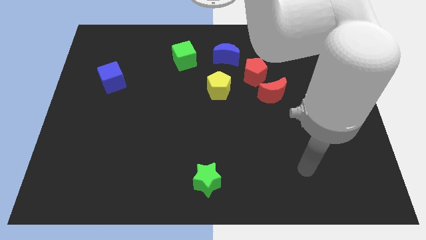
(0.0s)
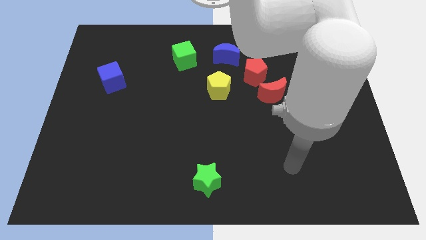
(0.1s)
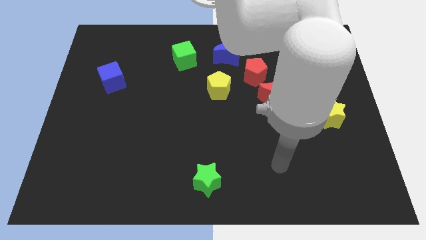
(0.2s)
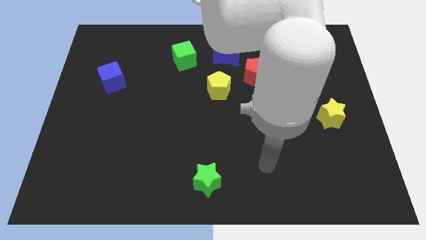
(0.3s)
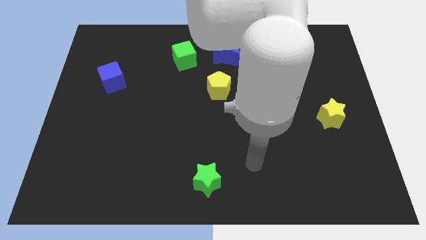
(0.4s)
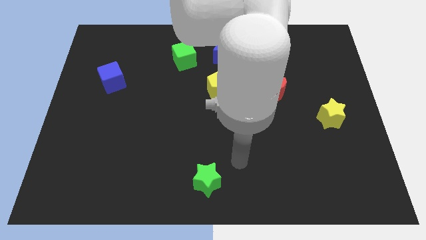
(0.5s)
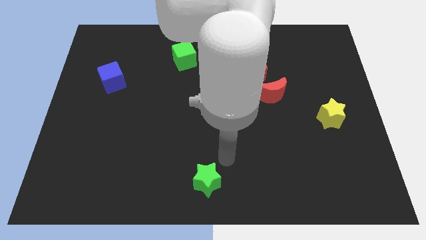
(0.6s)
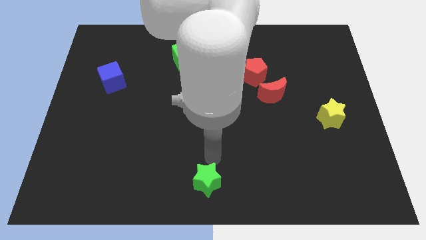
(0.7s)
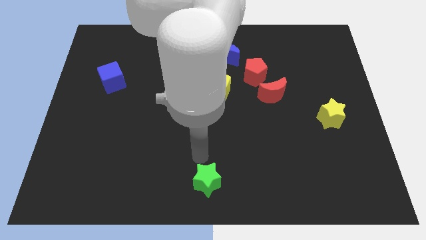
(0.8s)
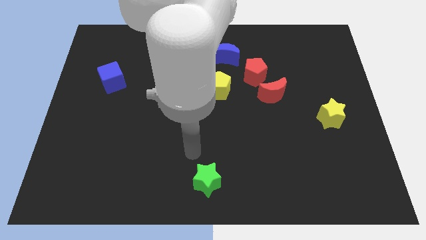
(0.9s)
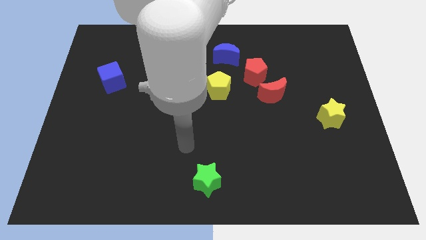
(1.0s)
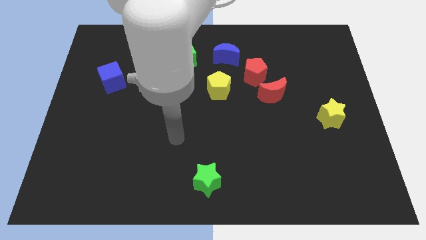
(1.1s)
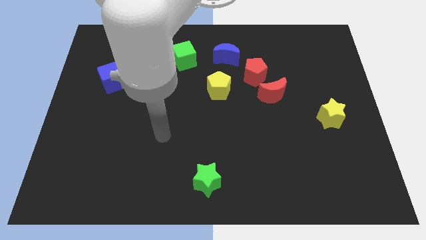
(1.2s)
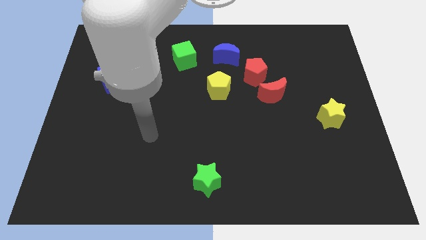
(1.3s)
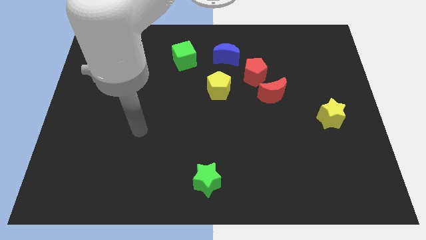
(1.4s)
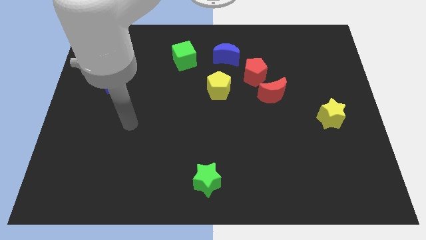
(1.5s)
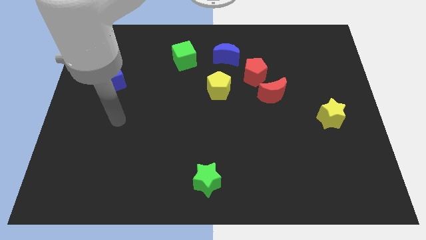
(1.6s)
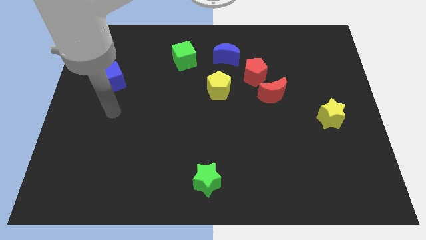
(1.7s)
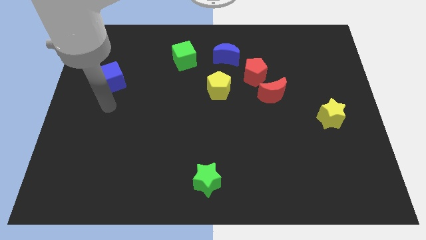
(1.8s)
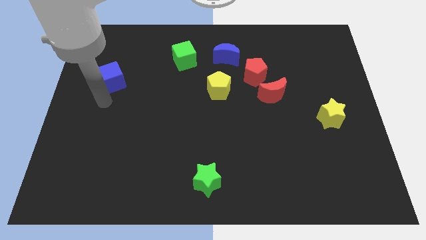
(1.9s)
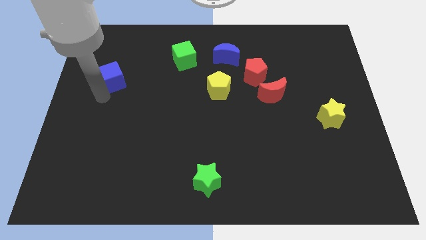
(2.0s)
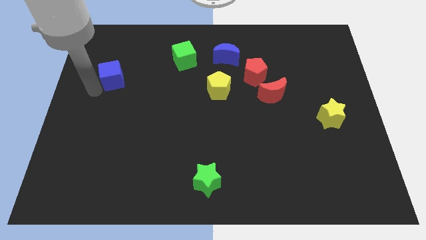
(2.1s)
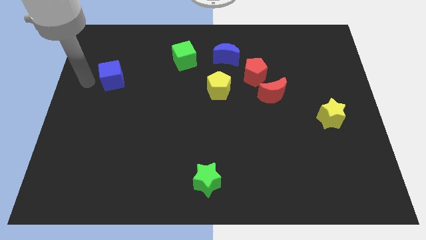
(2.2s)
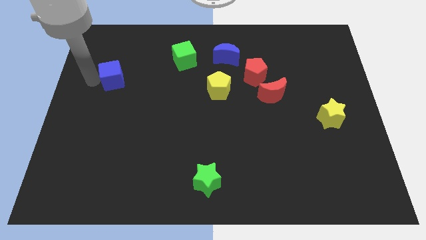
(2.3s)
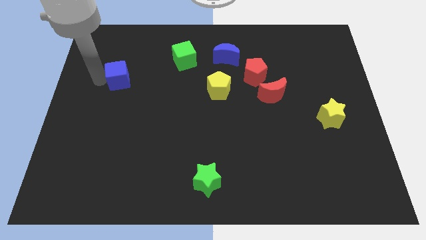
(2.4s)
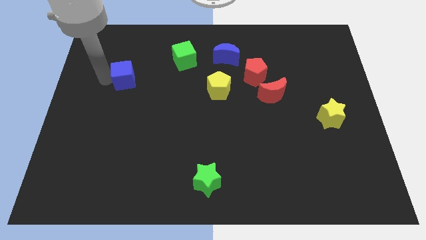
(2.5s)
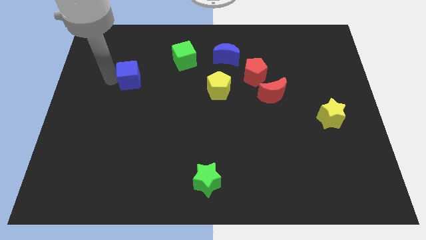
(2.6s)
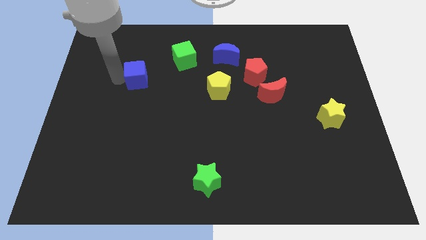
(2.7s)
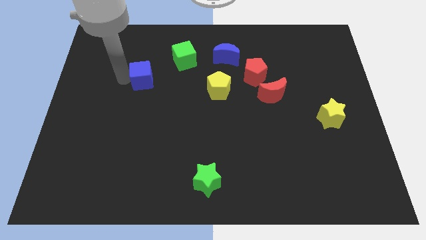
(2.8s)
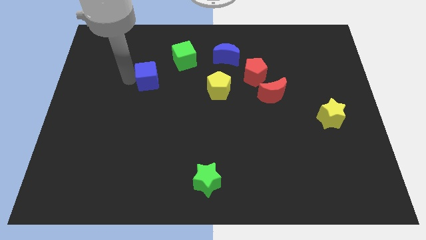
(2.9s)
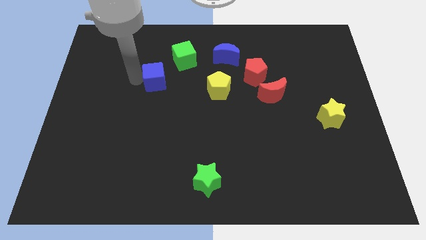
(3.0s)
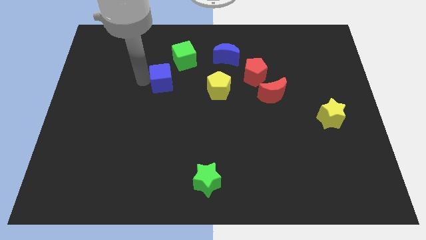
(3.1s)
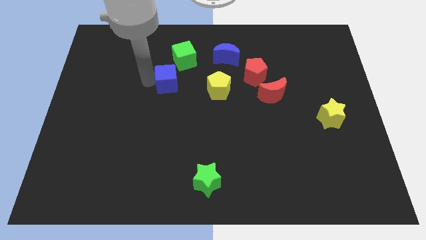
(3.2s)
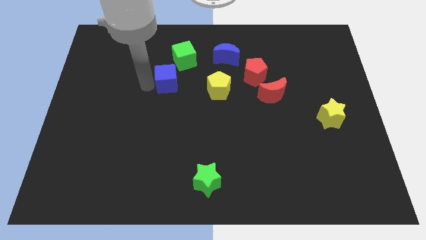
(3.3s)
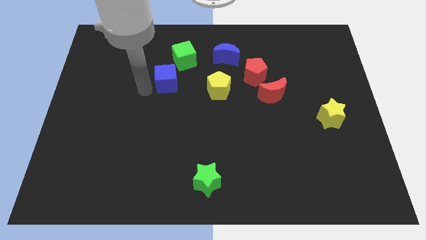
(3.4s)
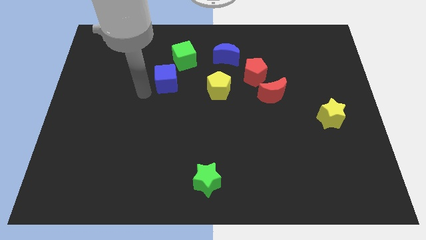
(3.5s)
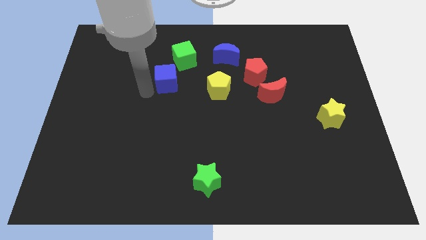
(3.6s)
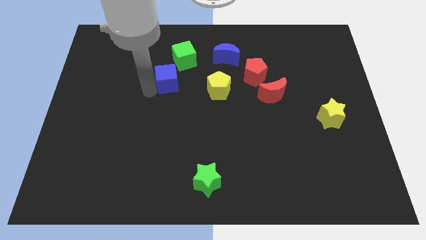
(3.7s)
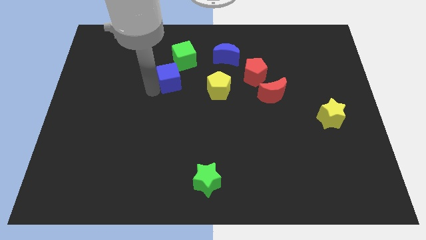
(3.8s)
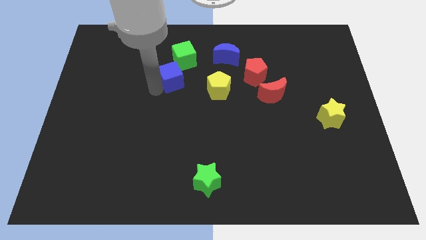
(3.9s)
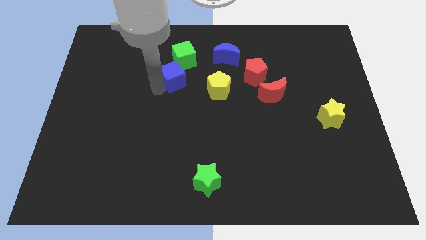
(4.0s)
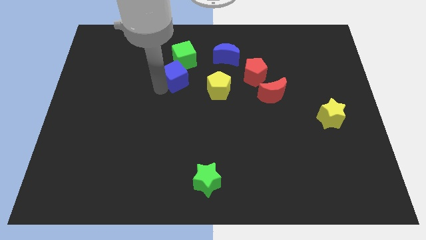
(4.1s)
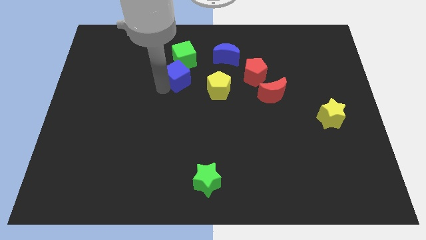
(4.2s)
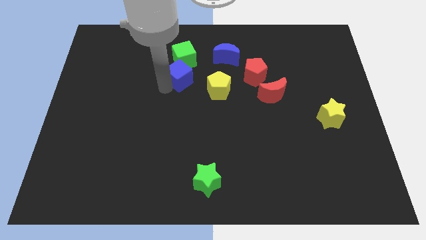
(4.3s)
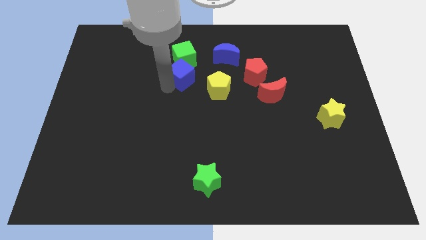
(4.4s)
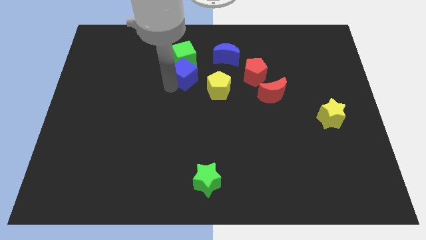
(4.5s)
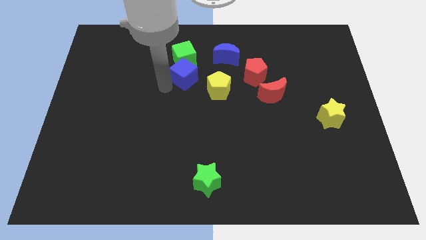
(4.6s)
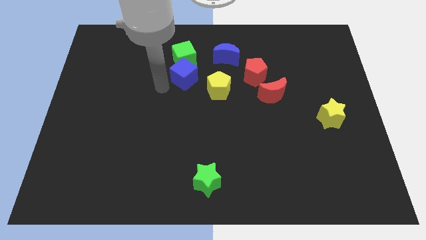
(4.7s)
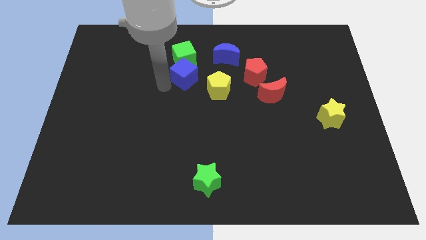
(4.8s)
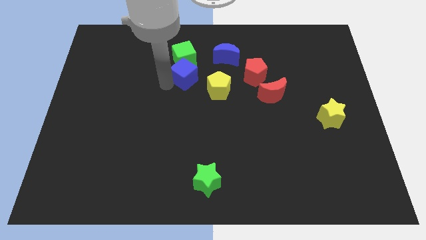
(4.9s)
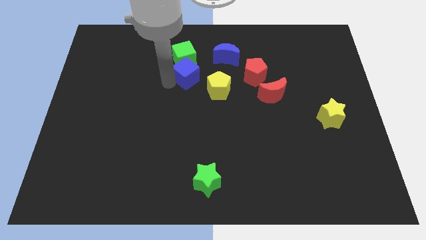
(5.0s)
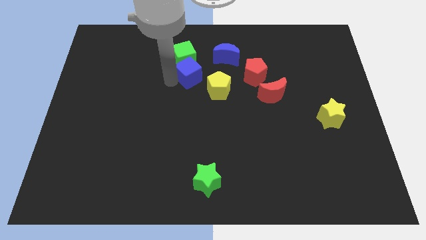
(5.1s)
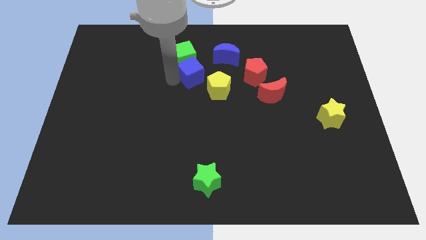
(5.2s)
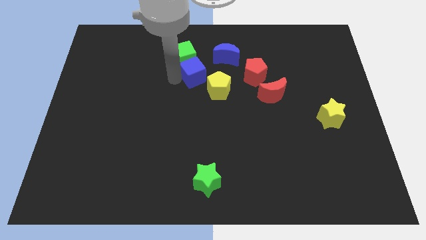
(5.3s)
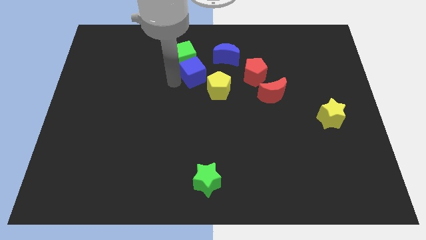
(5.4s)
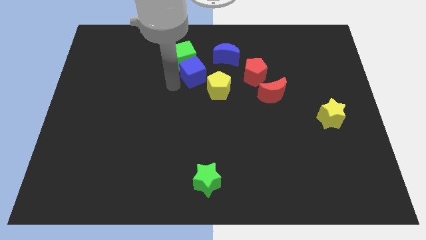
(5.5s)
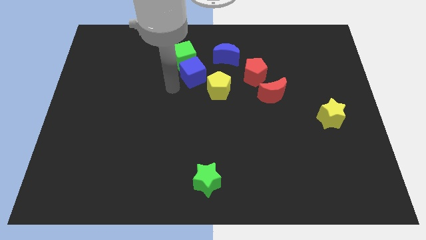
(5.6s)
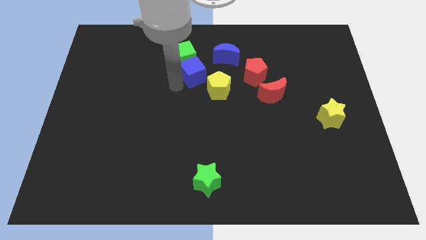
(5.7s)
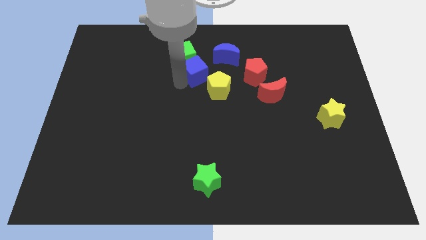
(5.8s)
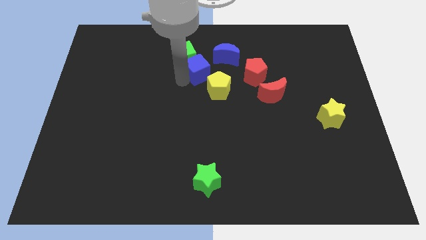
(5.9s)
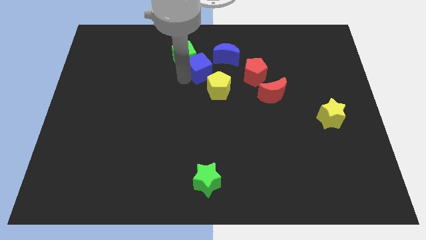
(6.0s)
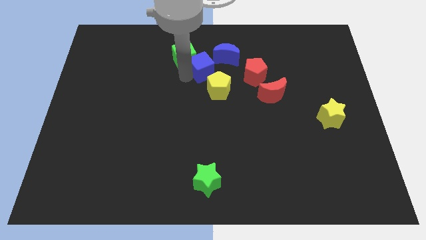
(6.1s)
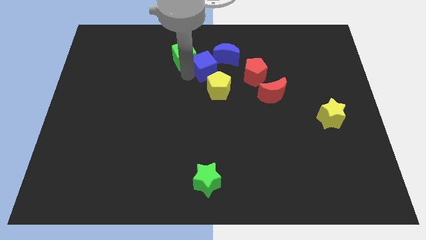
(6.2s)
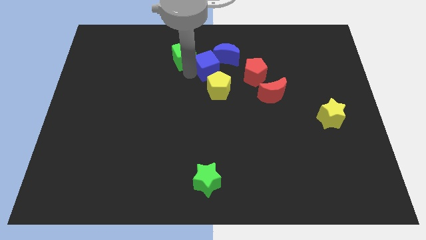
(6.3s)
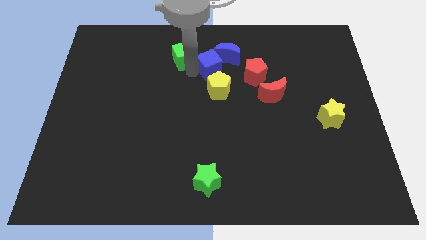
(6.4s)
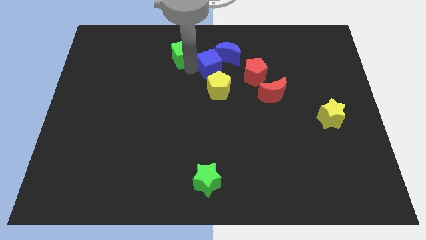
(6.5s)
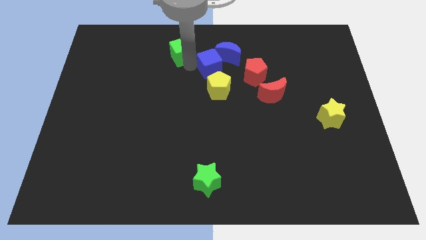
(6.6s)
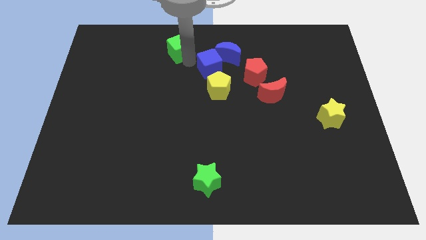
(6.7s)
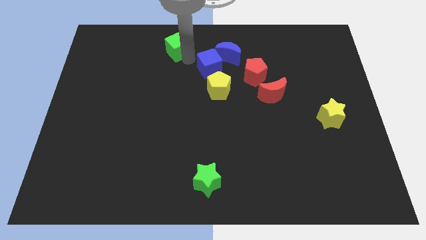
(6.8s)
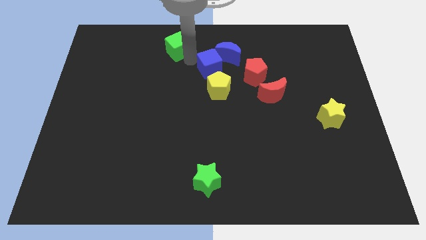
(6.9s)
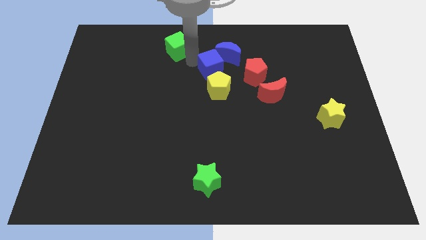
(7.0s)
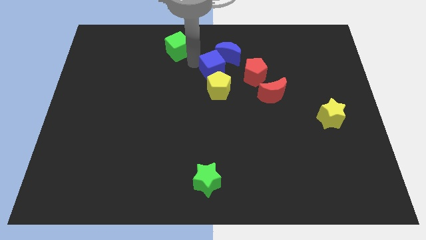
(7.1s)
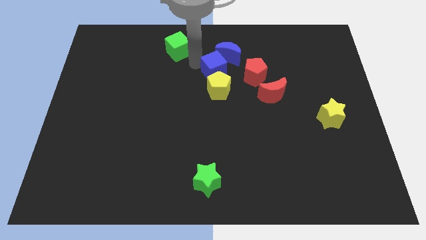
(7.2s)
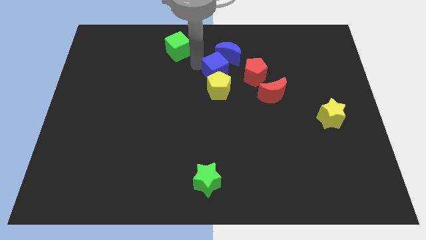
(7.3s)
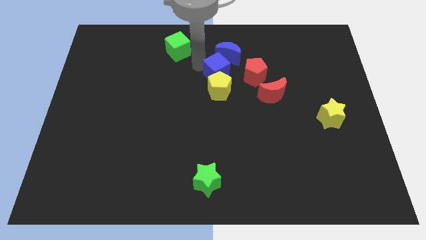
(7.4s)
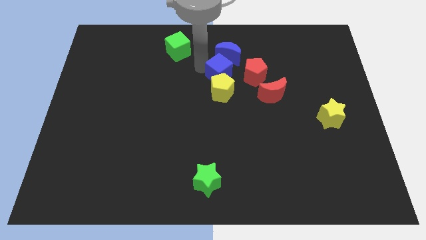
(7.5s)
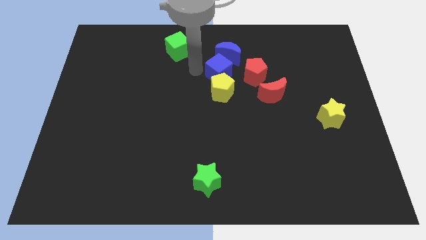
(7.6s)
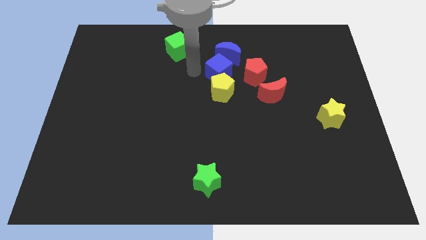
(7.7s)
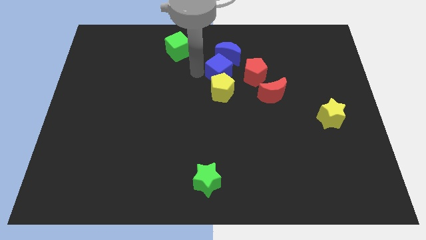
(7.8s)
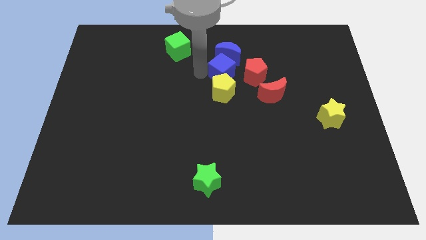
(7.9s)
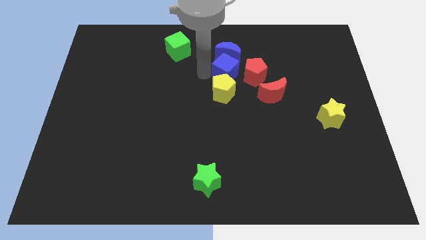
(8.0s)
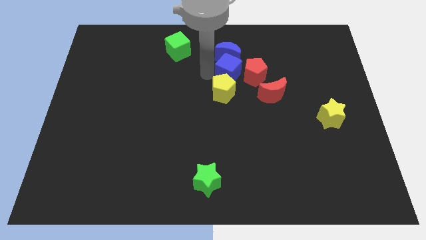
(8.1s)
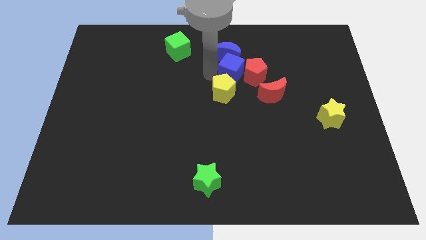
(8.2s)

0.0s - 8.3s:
put the blue cube towards the red pentagon
